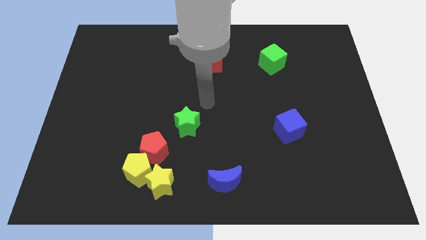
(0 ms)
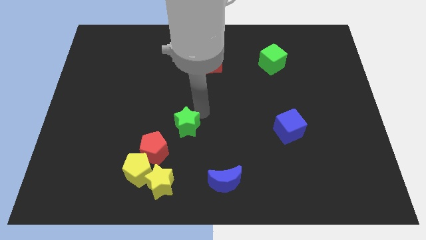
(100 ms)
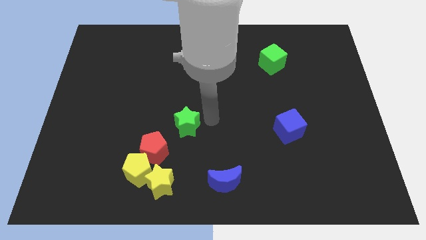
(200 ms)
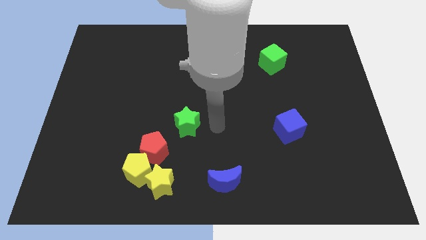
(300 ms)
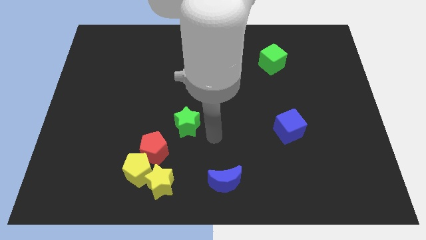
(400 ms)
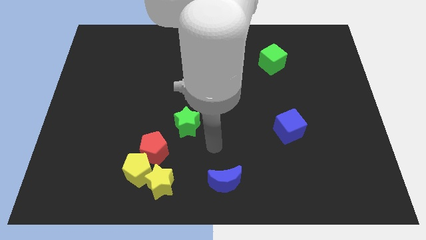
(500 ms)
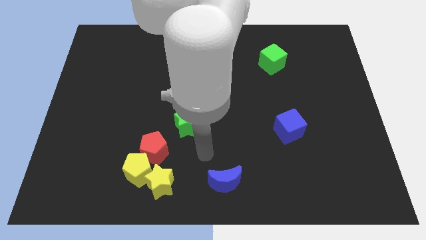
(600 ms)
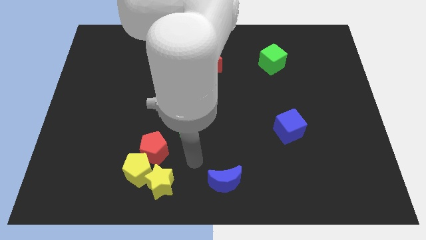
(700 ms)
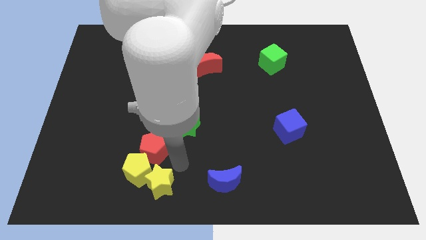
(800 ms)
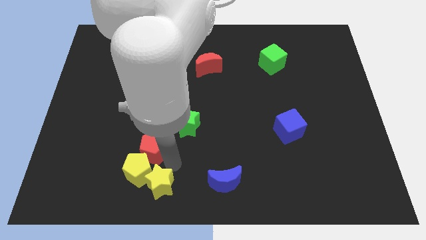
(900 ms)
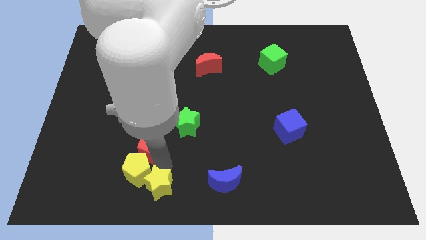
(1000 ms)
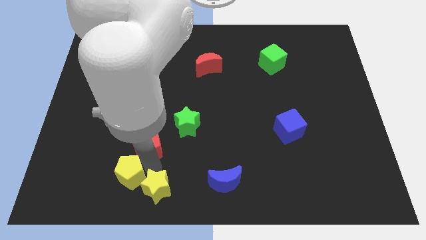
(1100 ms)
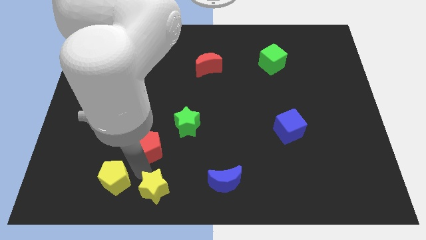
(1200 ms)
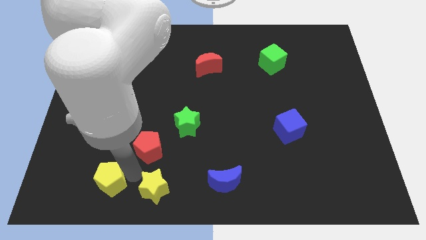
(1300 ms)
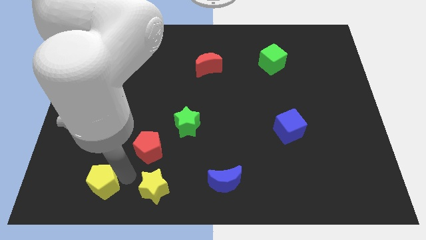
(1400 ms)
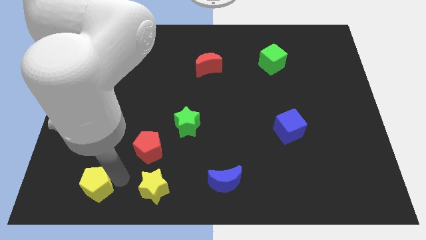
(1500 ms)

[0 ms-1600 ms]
move the yellow pentagon away from the yellow star and red pentagon

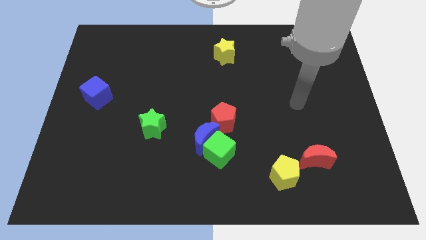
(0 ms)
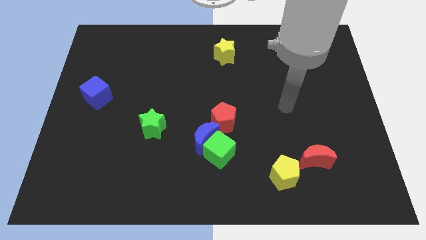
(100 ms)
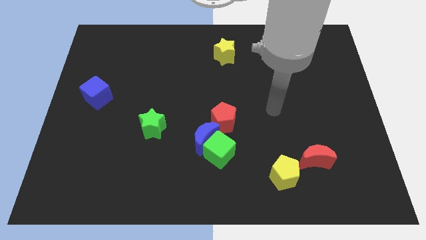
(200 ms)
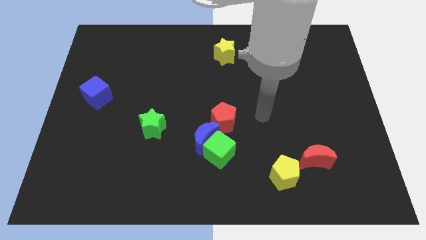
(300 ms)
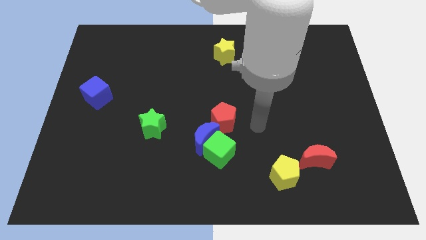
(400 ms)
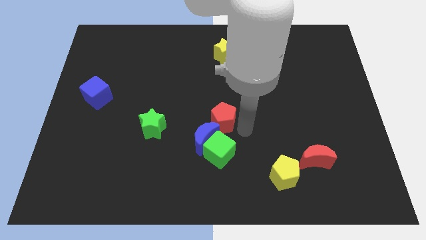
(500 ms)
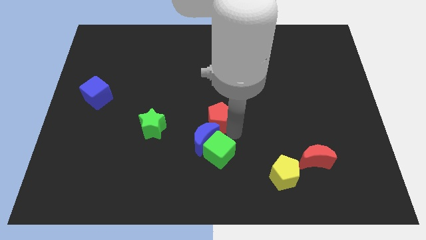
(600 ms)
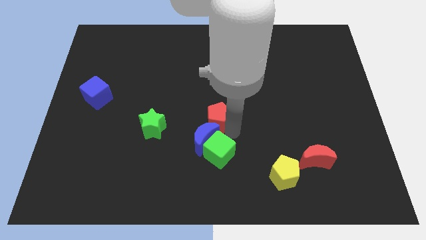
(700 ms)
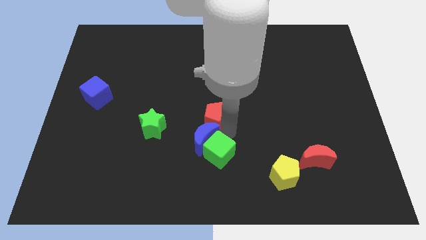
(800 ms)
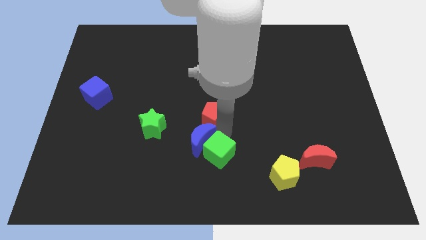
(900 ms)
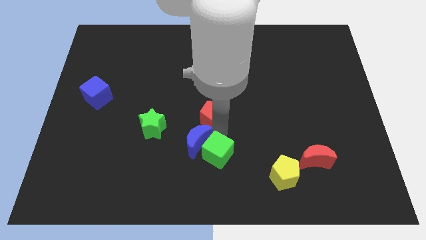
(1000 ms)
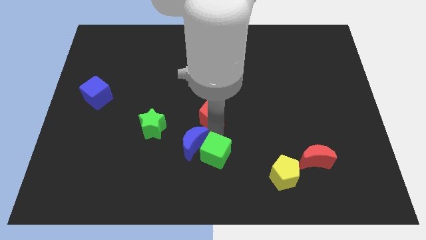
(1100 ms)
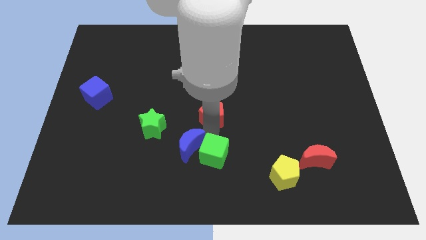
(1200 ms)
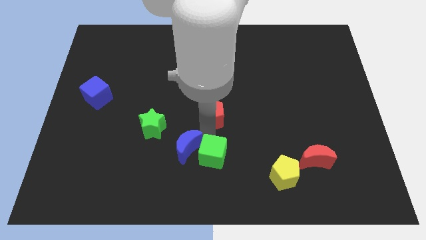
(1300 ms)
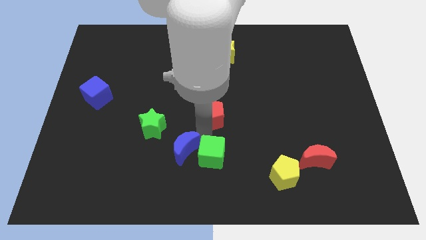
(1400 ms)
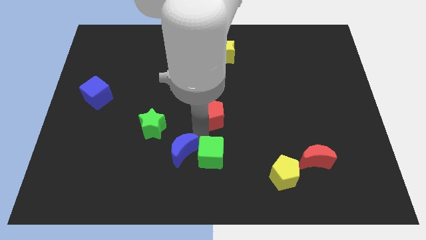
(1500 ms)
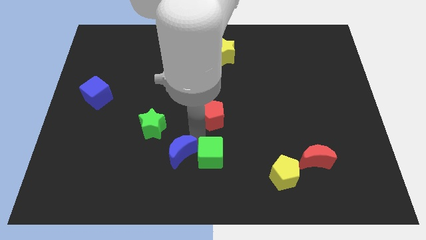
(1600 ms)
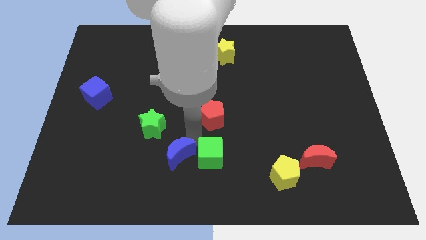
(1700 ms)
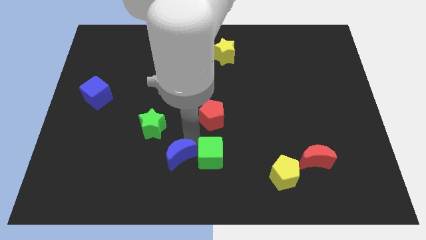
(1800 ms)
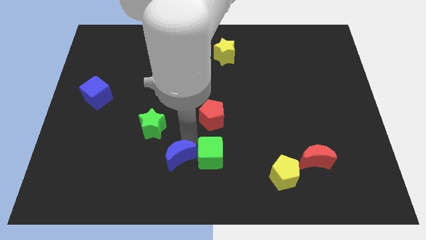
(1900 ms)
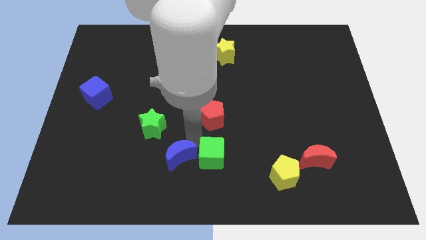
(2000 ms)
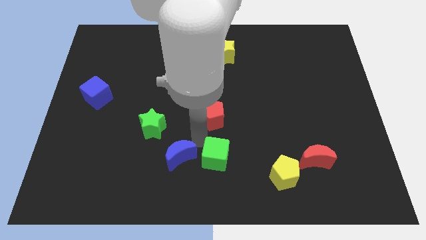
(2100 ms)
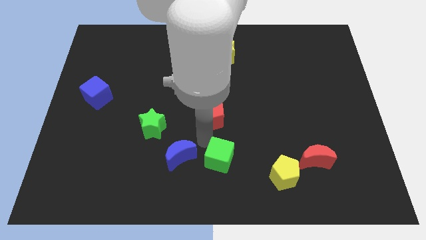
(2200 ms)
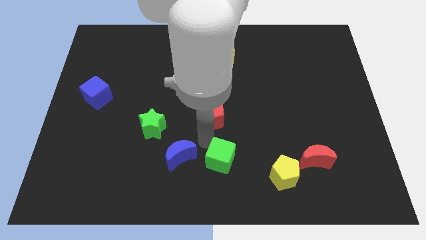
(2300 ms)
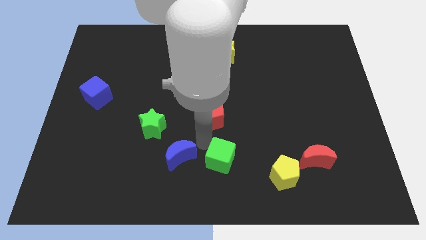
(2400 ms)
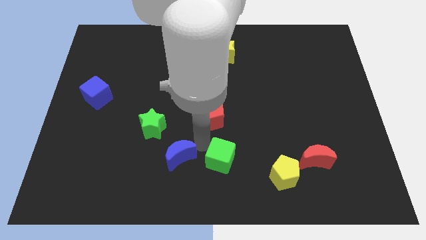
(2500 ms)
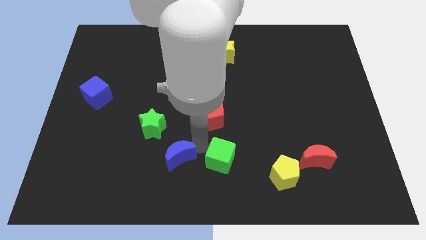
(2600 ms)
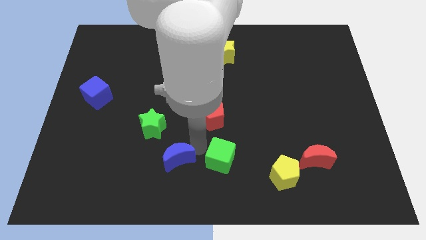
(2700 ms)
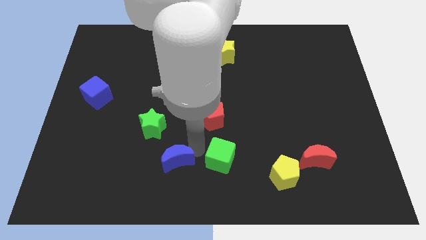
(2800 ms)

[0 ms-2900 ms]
separate the blue moon from the green cube and red pentagon

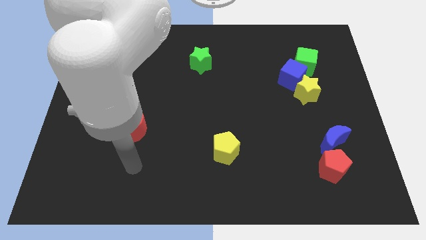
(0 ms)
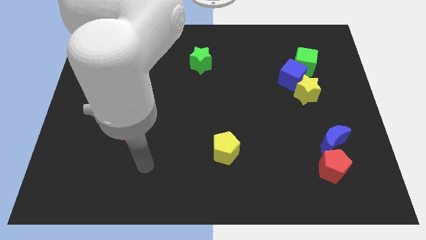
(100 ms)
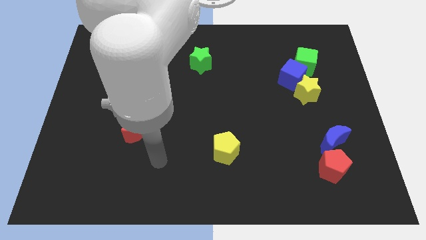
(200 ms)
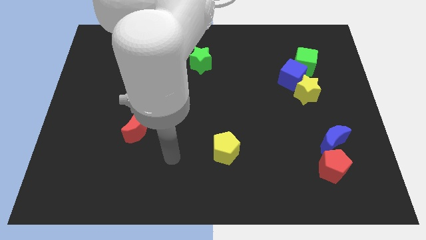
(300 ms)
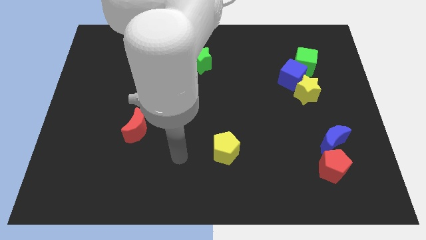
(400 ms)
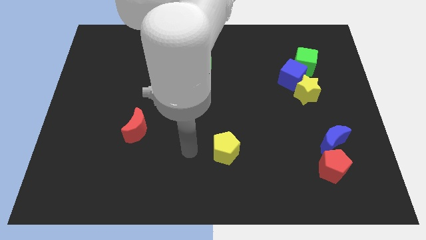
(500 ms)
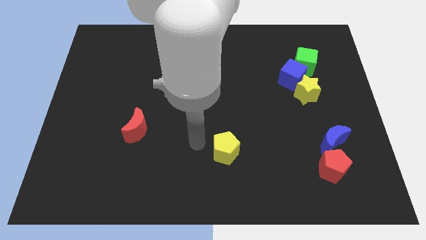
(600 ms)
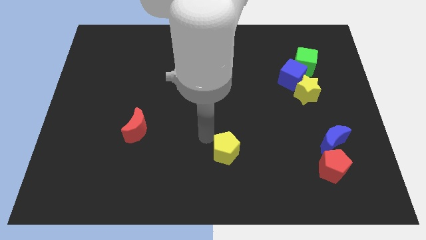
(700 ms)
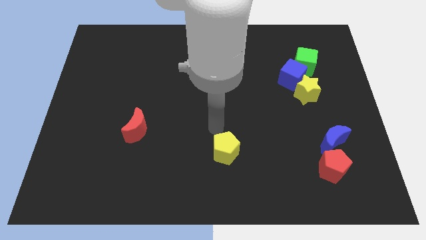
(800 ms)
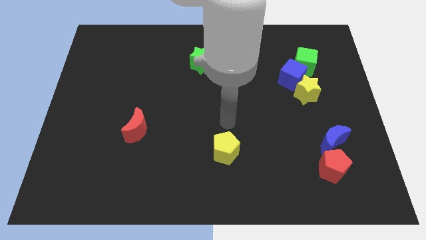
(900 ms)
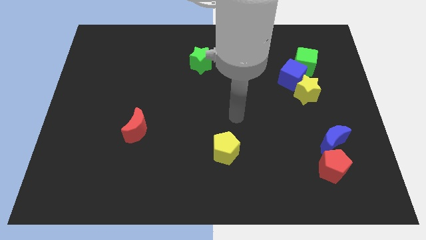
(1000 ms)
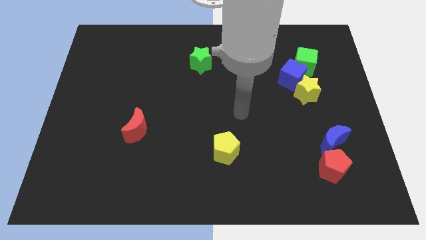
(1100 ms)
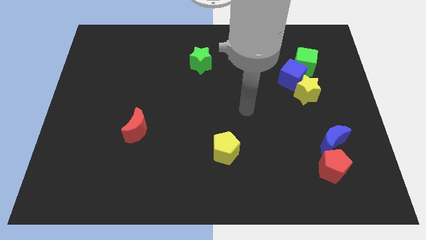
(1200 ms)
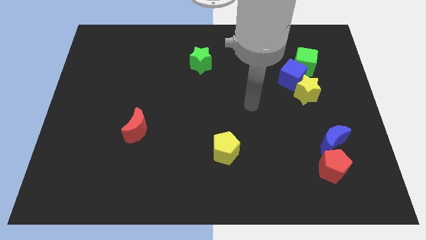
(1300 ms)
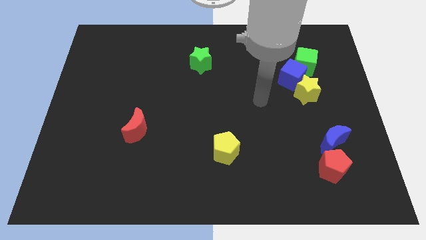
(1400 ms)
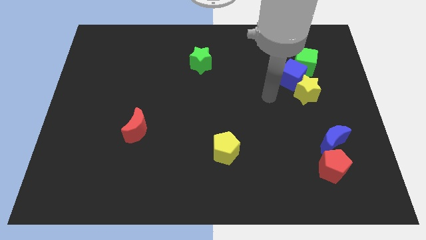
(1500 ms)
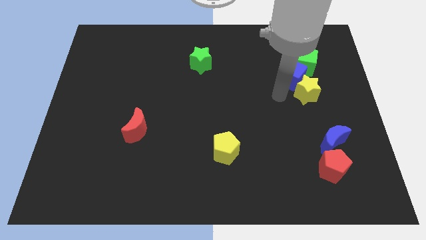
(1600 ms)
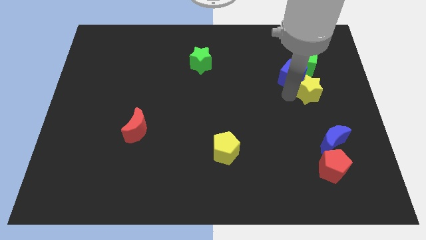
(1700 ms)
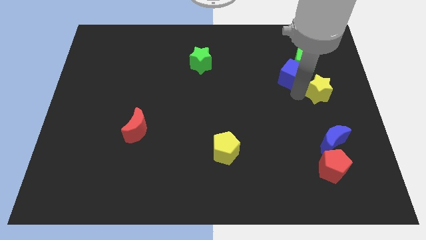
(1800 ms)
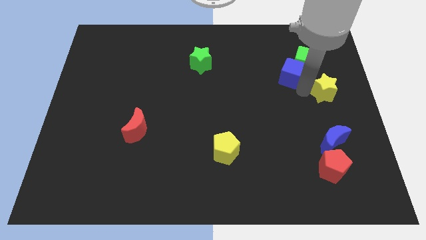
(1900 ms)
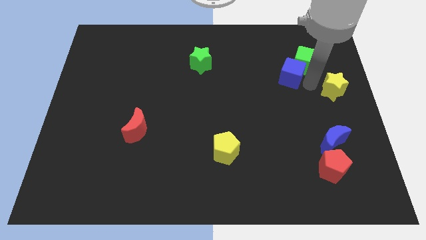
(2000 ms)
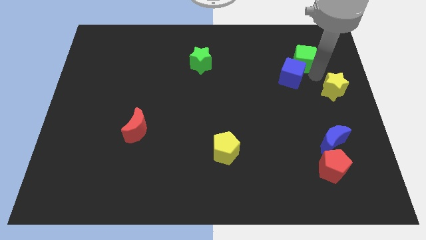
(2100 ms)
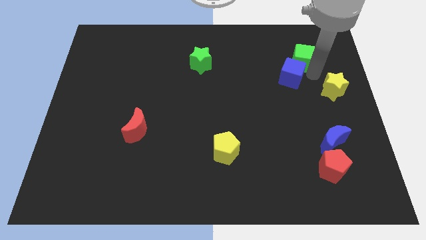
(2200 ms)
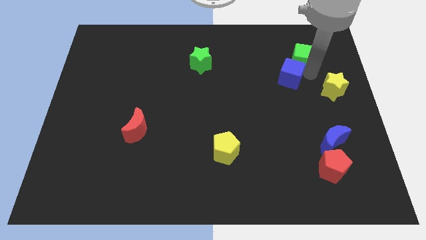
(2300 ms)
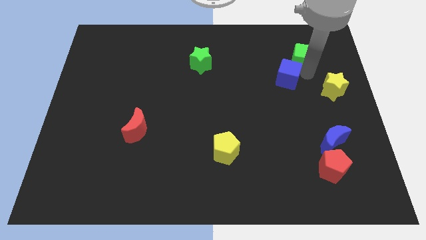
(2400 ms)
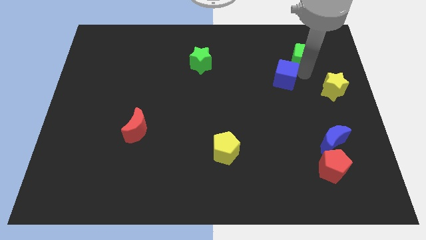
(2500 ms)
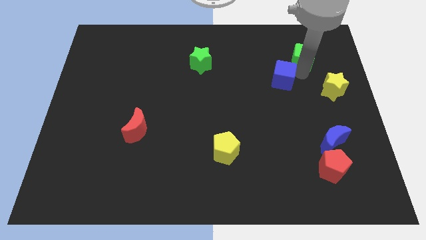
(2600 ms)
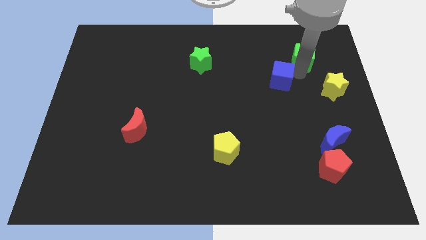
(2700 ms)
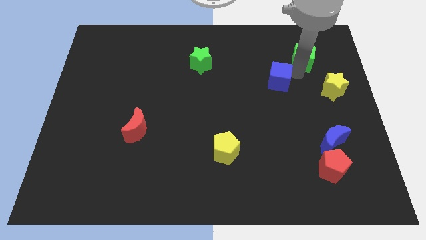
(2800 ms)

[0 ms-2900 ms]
pull the blue cube apart from the yellow star and green cube

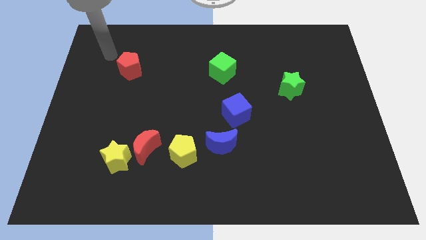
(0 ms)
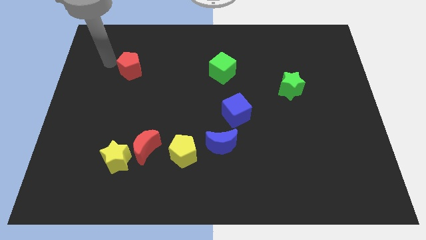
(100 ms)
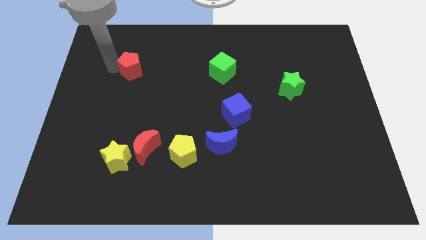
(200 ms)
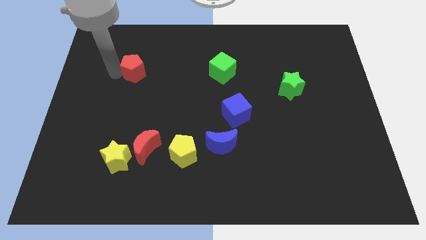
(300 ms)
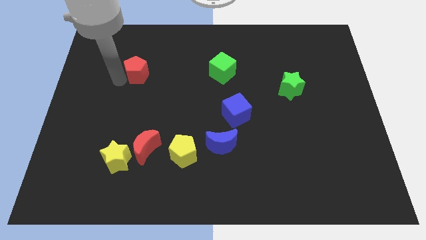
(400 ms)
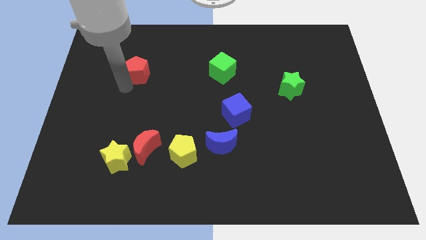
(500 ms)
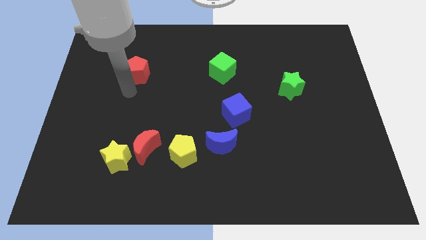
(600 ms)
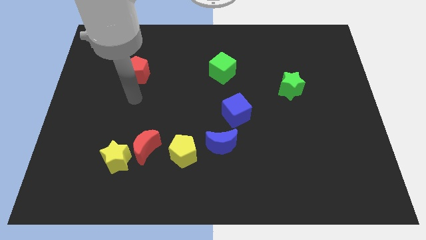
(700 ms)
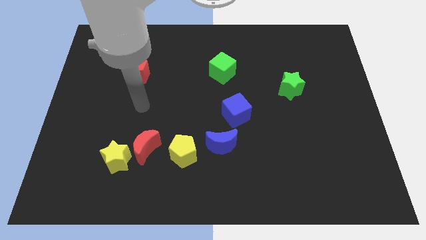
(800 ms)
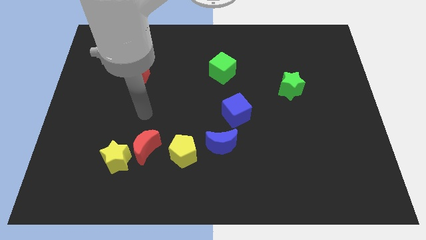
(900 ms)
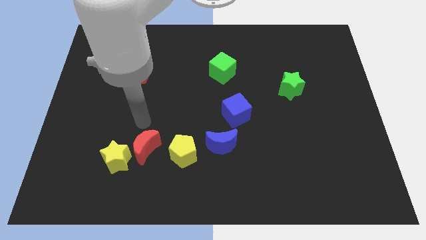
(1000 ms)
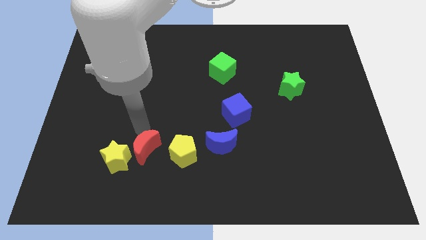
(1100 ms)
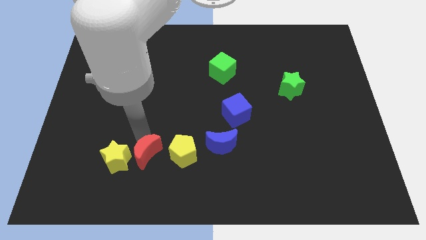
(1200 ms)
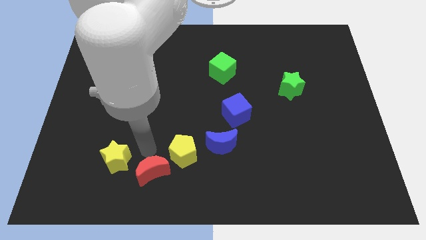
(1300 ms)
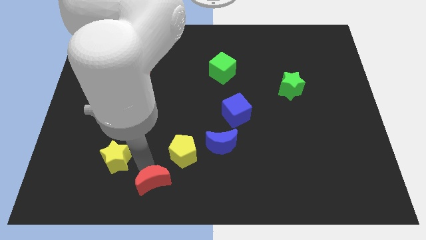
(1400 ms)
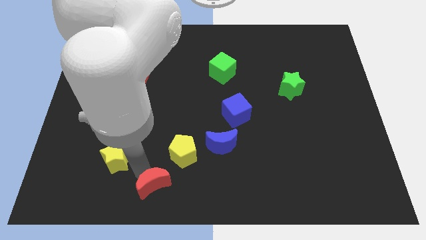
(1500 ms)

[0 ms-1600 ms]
move the yellow star away from the red moon

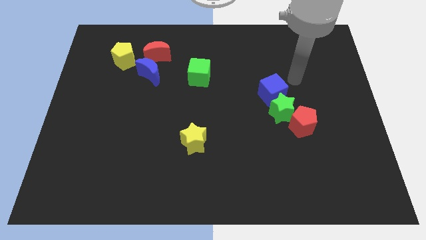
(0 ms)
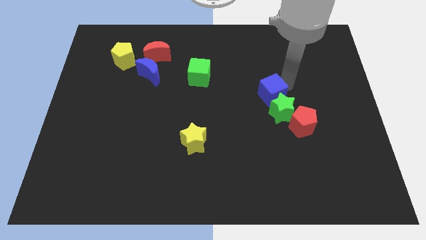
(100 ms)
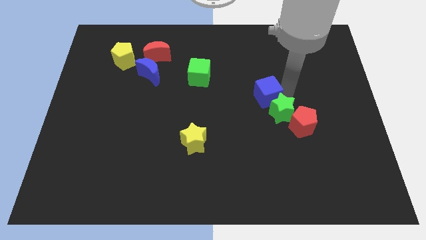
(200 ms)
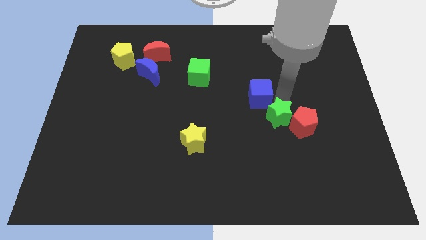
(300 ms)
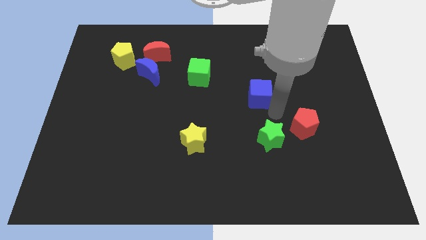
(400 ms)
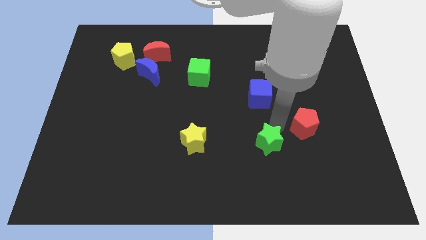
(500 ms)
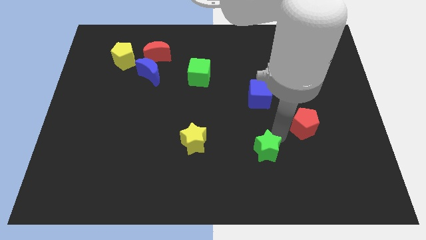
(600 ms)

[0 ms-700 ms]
move the red pentagon away from the green star
